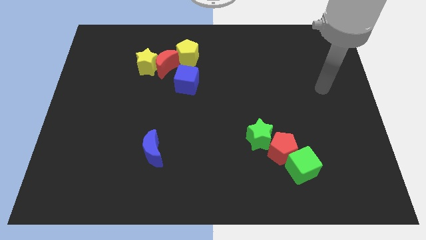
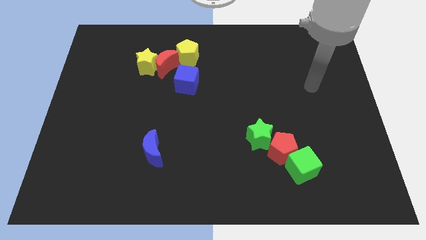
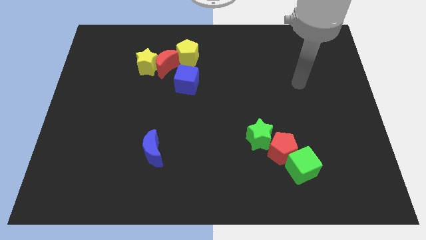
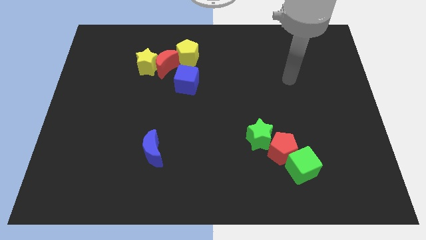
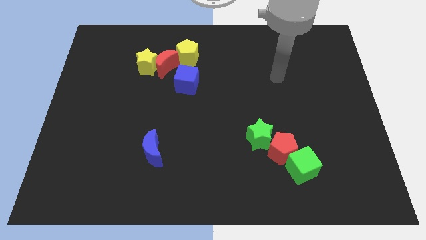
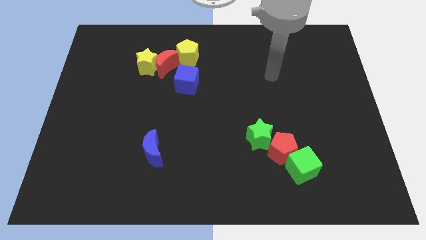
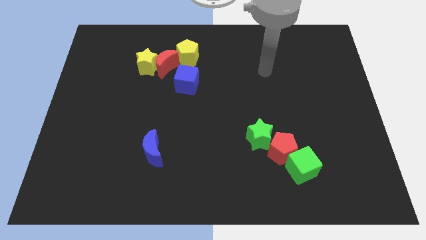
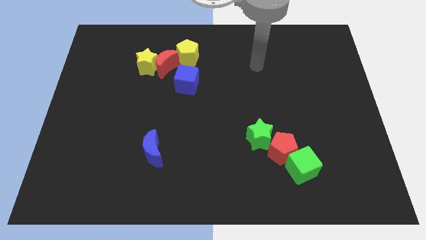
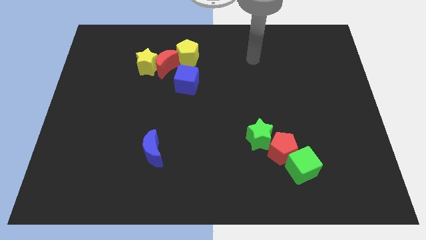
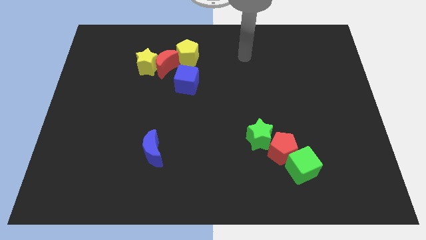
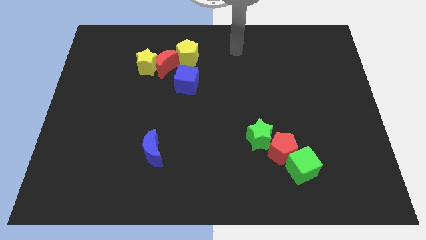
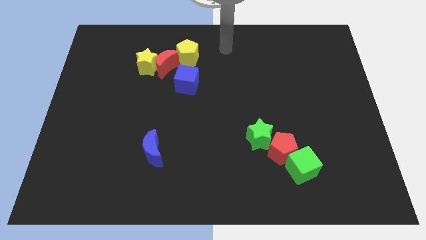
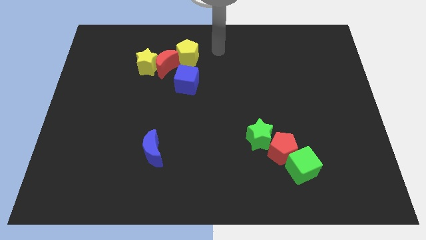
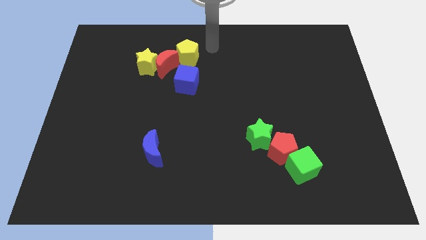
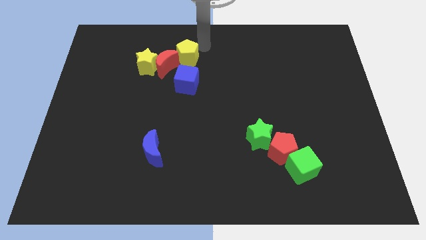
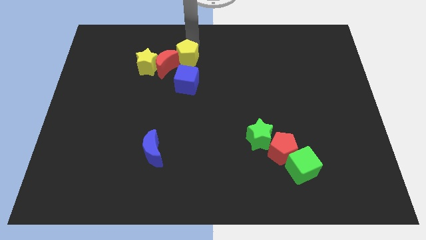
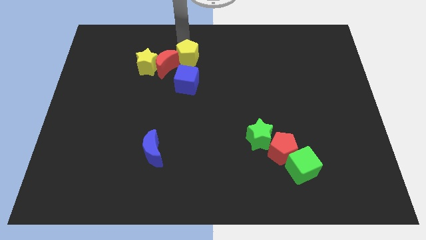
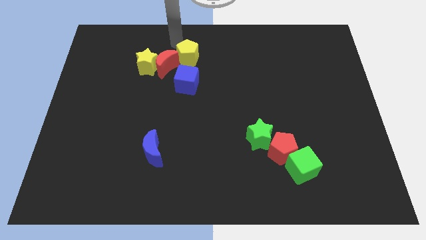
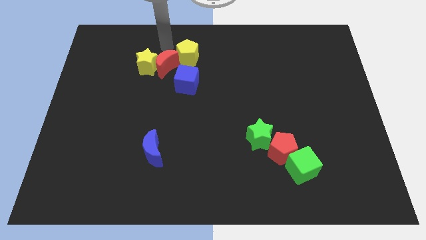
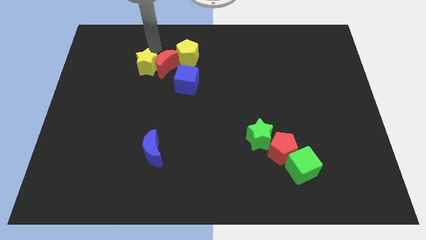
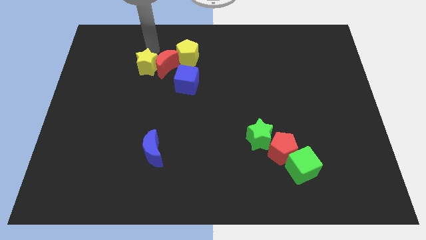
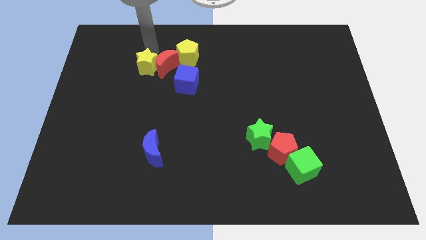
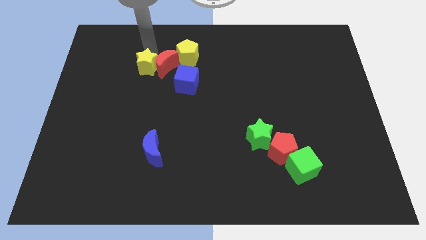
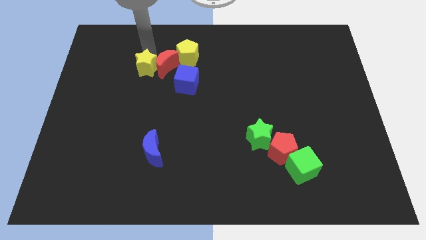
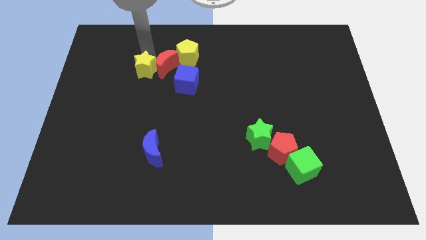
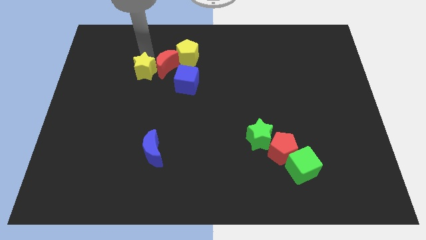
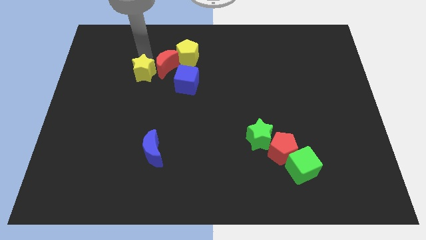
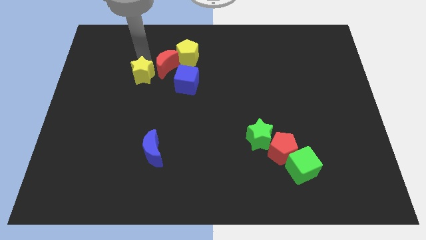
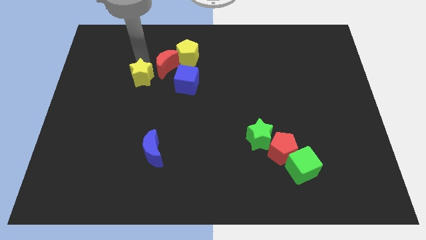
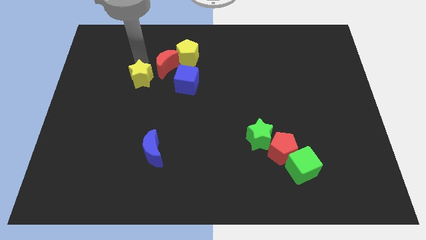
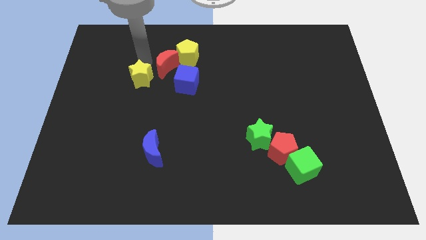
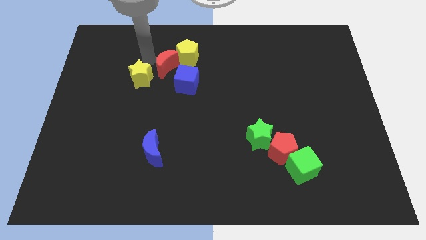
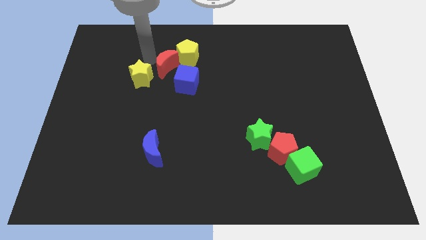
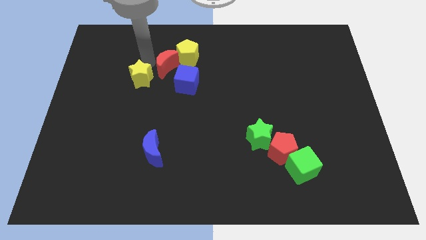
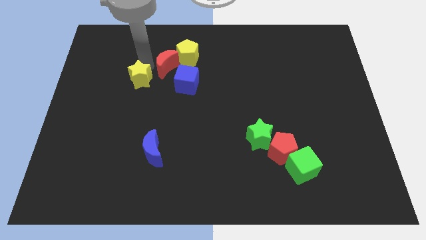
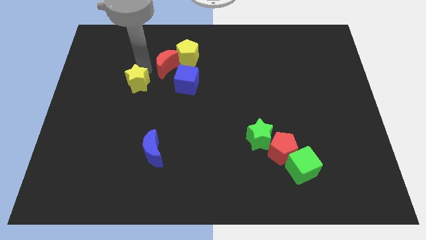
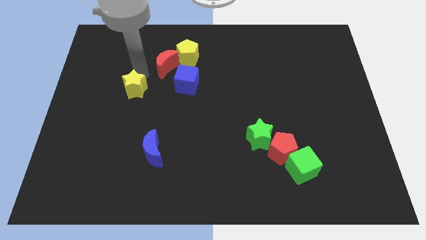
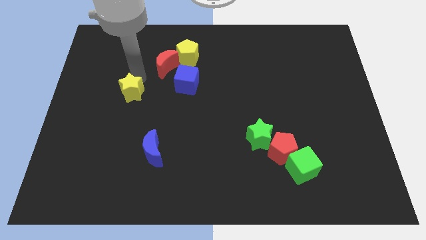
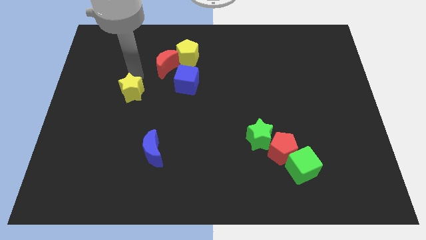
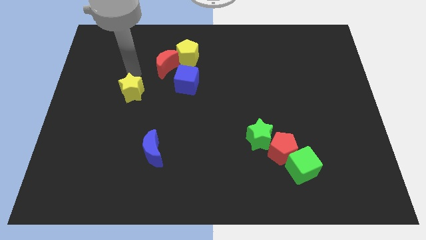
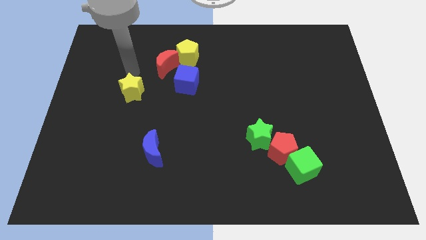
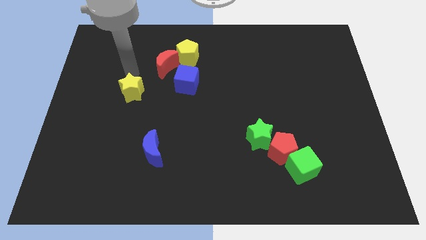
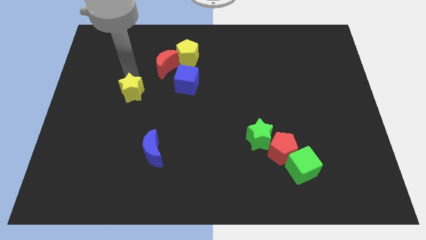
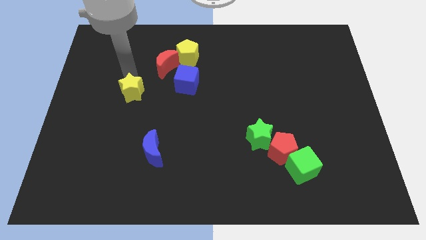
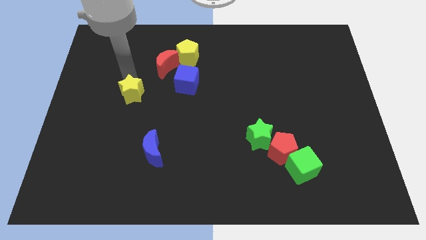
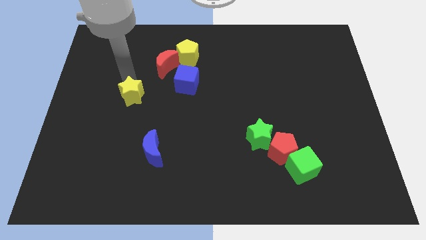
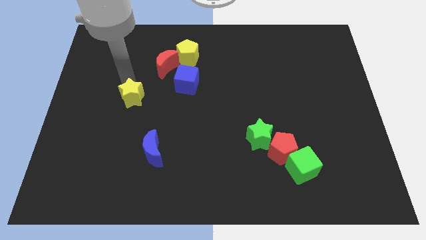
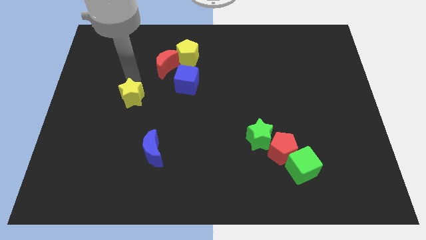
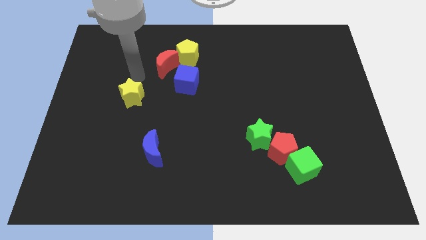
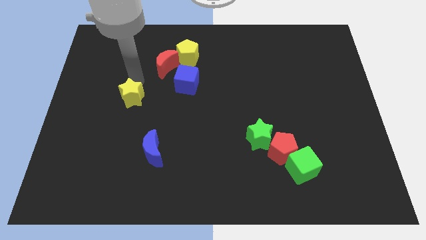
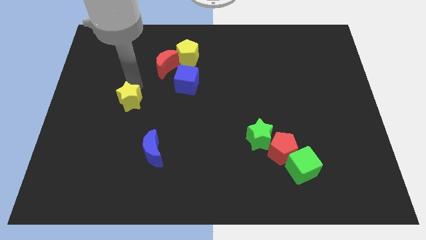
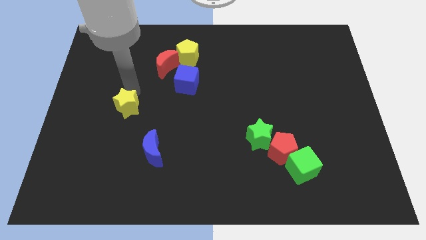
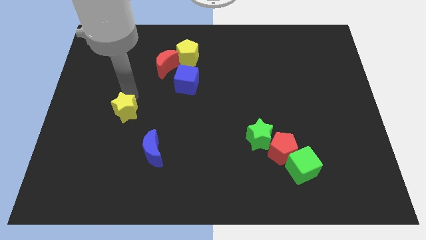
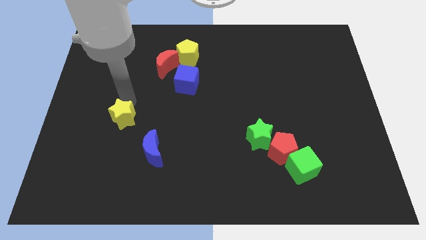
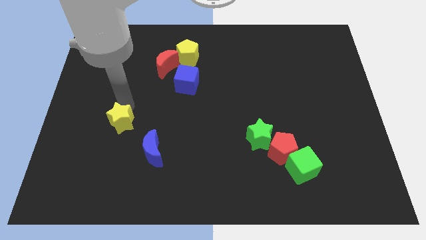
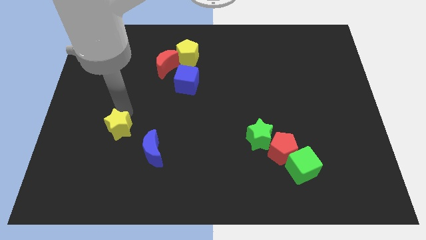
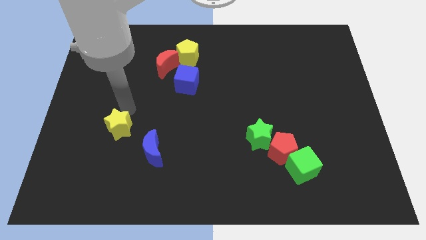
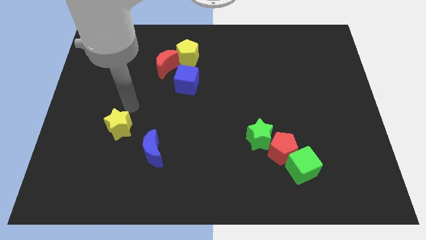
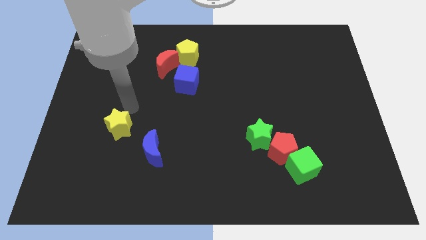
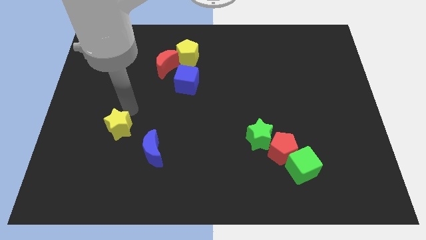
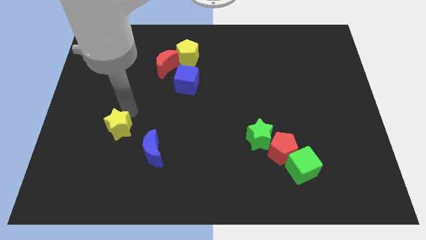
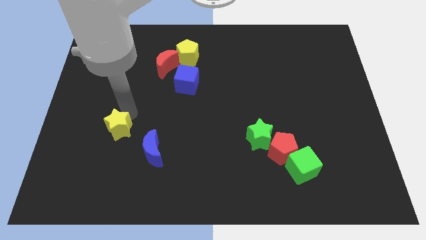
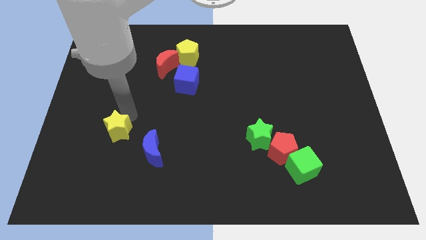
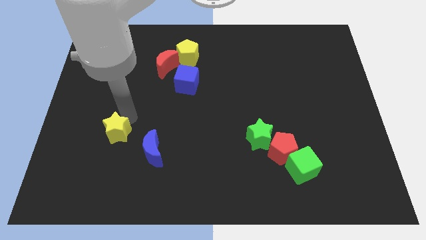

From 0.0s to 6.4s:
slide the yellow star downwards

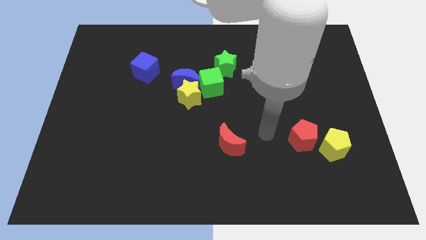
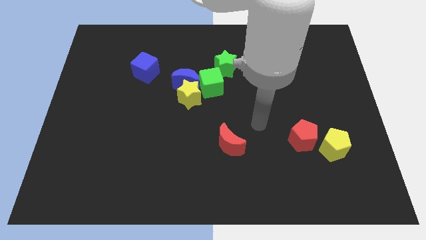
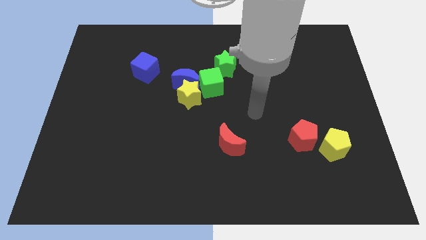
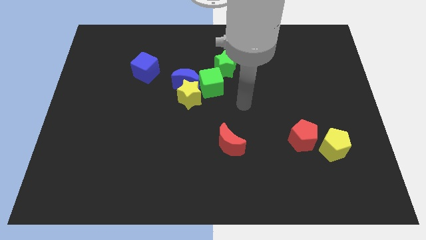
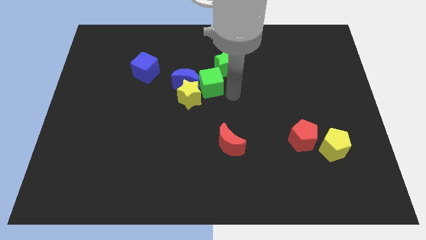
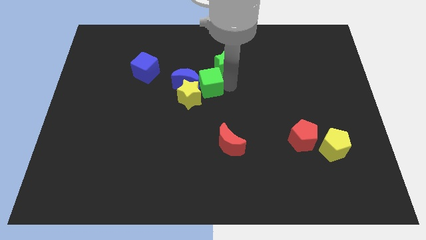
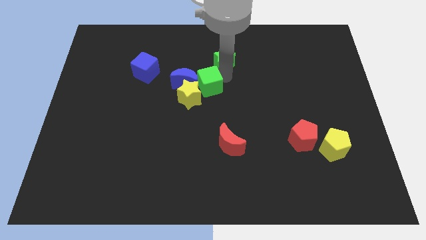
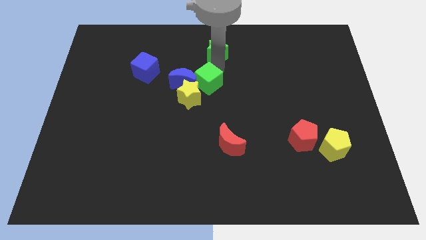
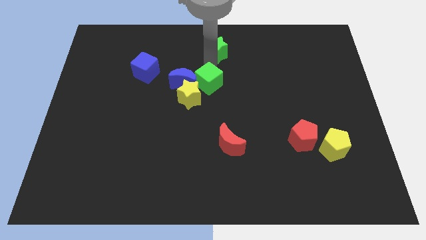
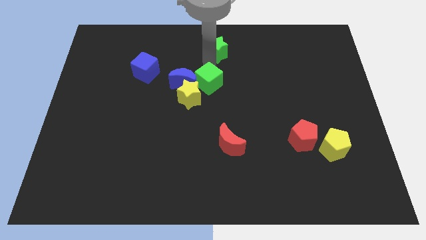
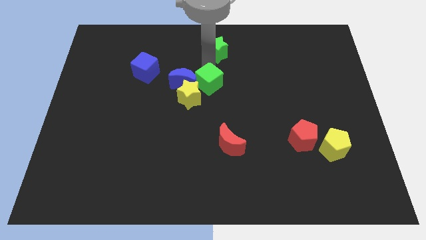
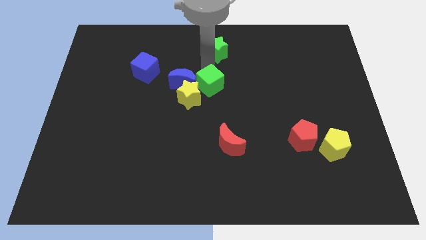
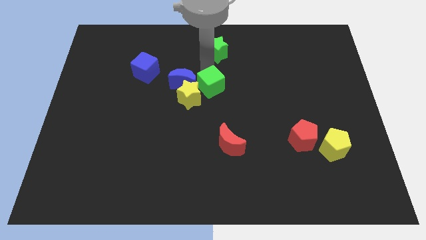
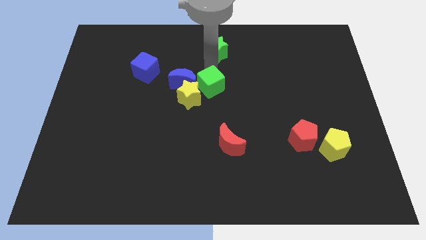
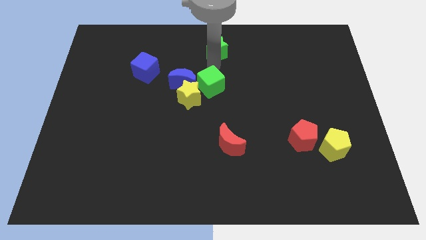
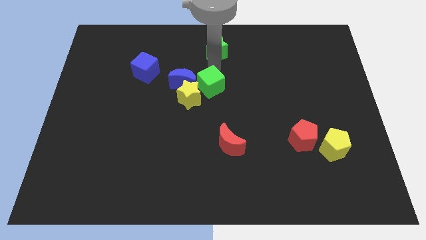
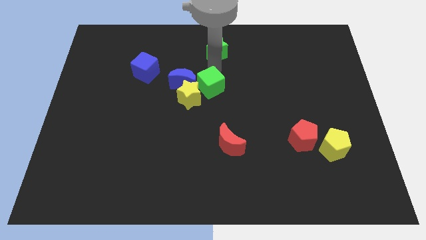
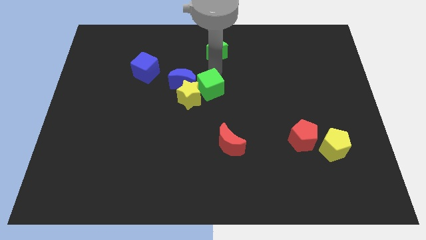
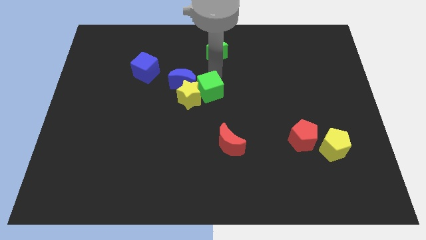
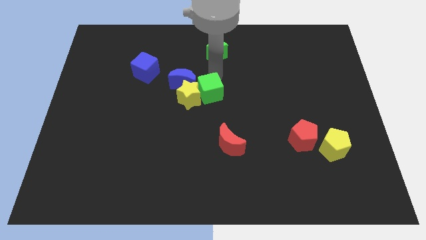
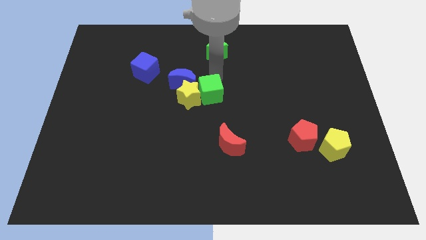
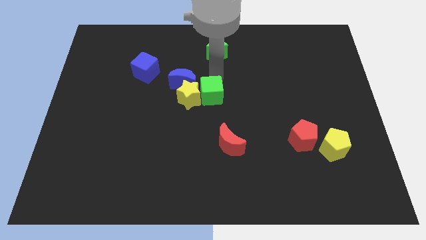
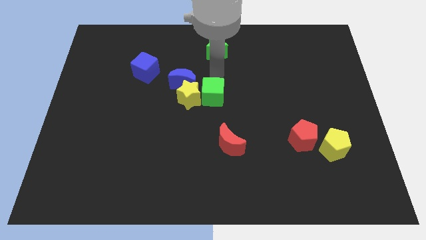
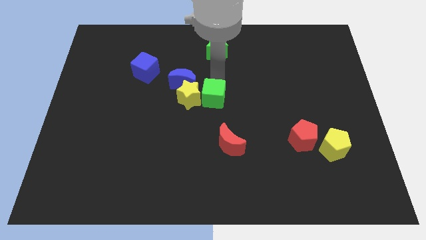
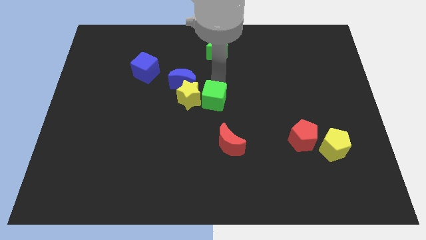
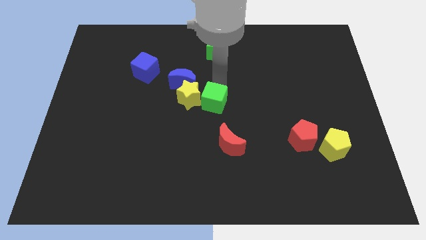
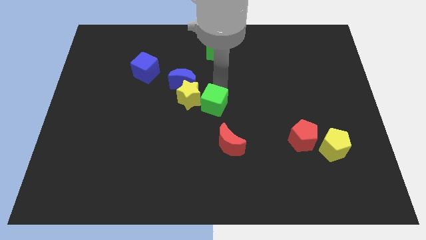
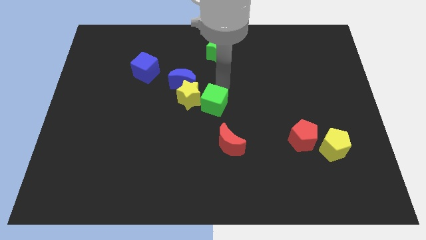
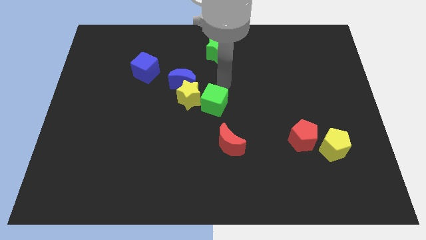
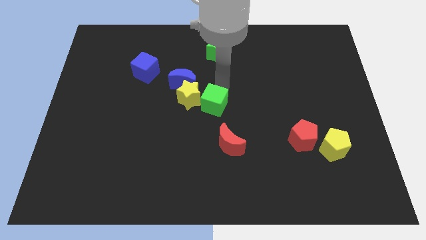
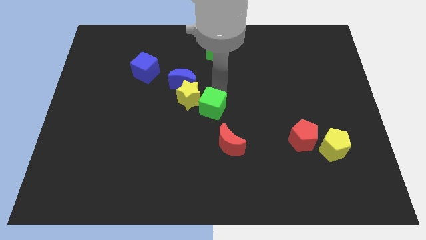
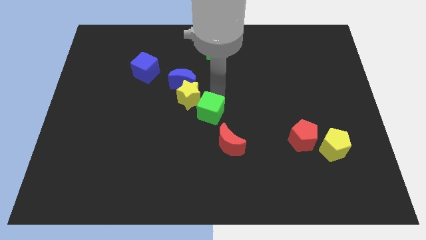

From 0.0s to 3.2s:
slightly slide the green cube down
